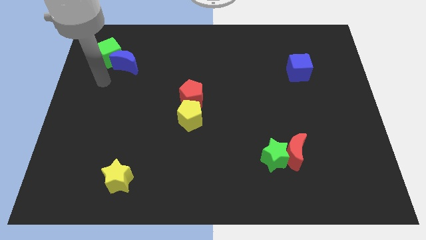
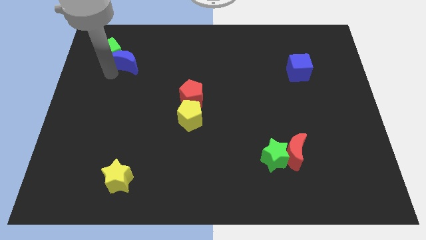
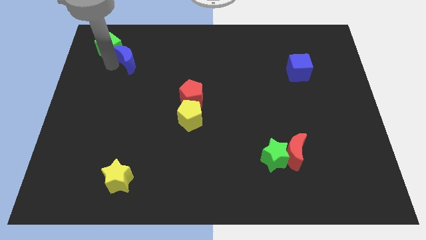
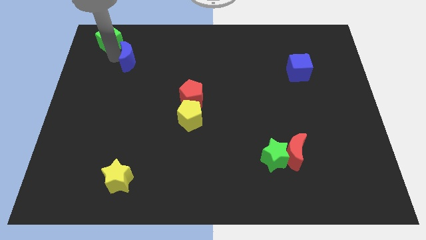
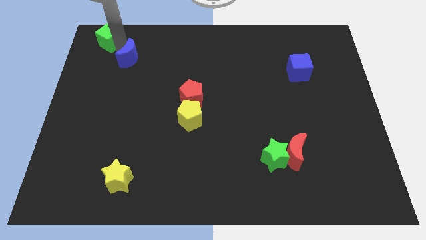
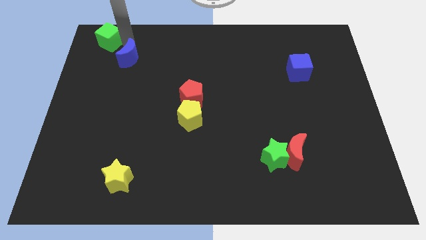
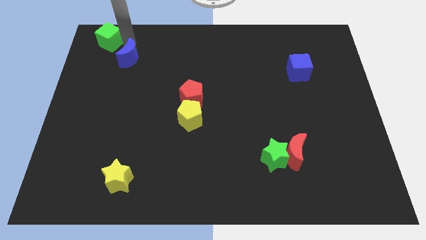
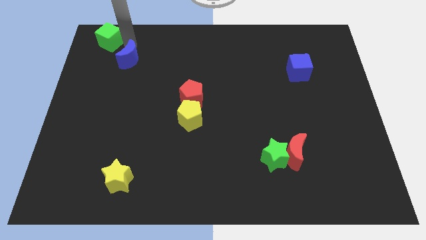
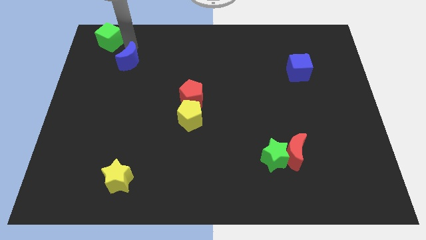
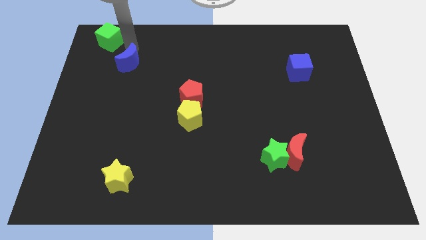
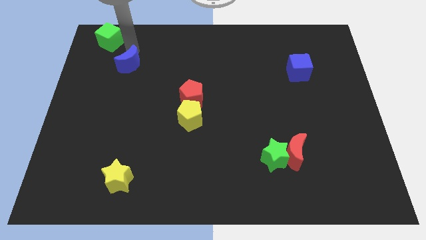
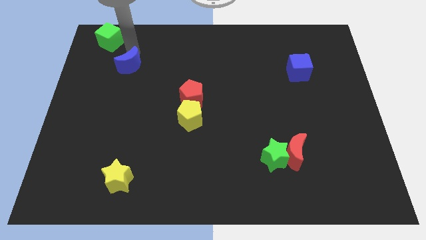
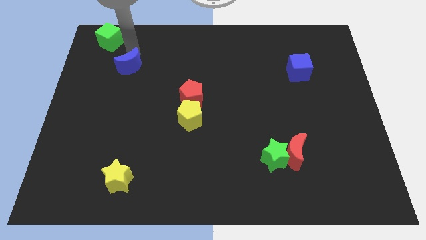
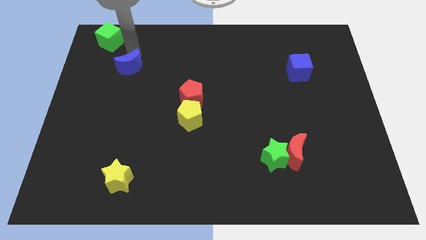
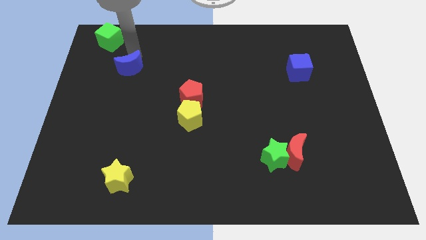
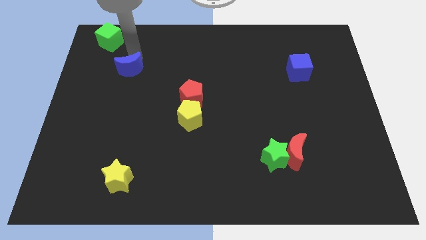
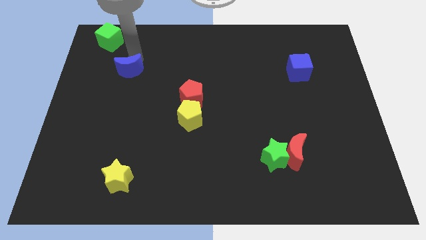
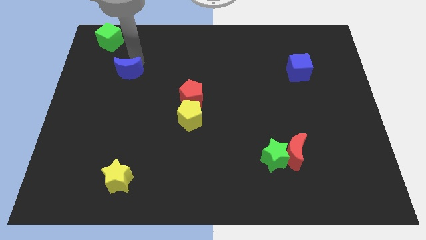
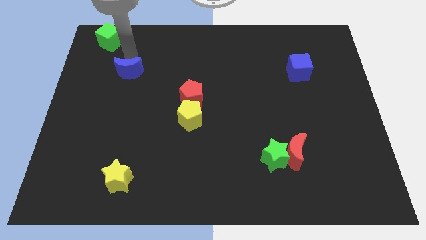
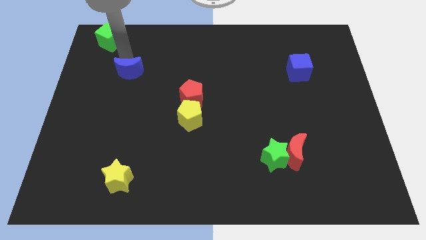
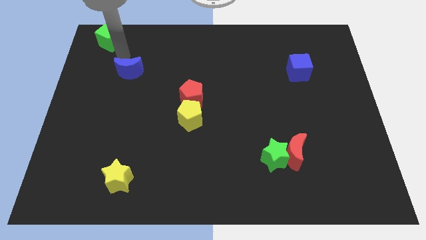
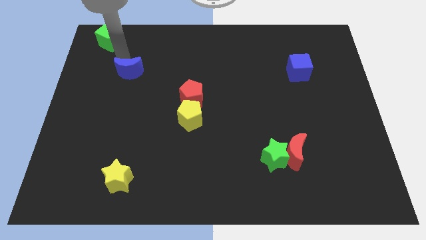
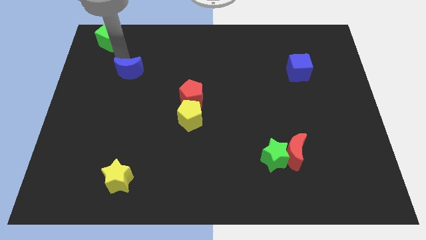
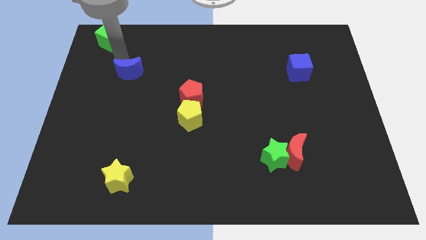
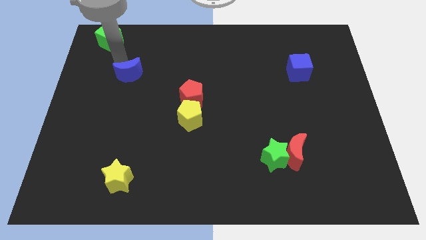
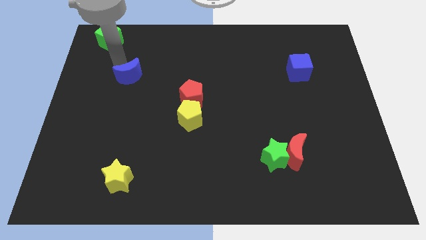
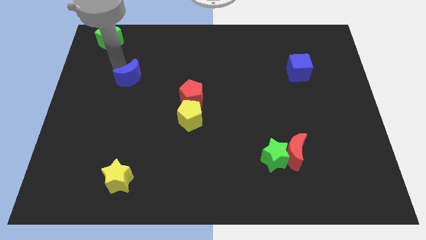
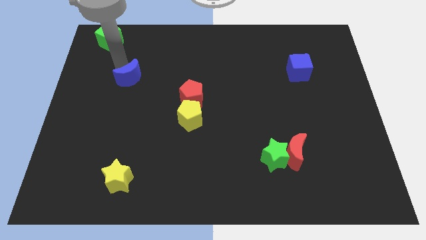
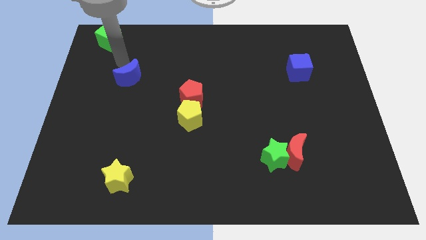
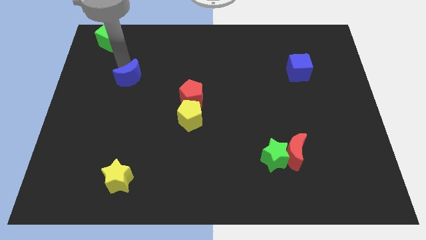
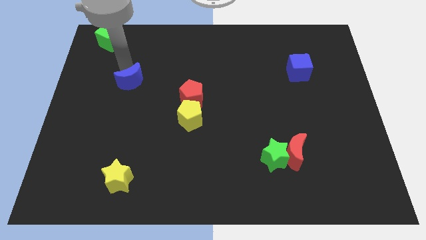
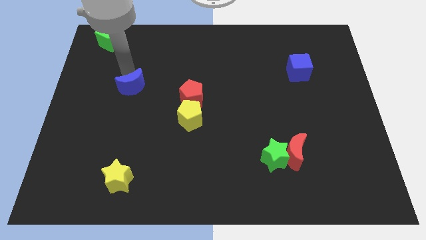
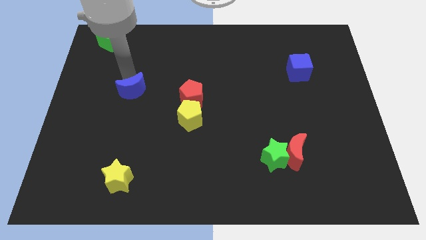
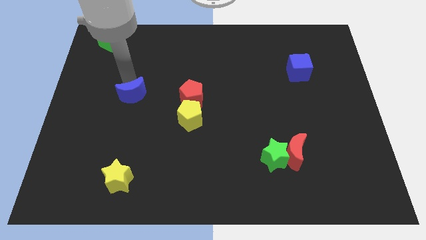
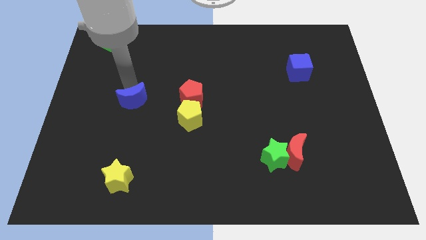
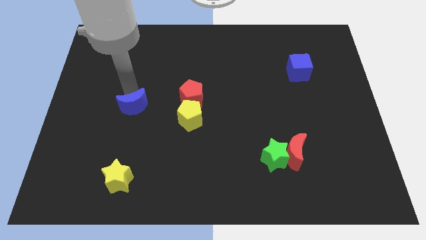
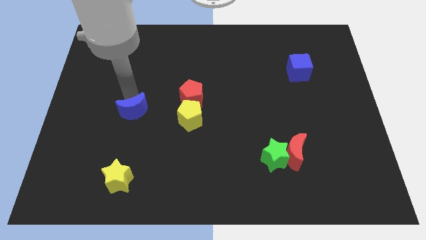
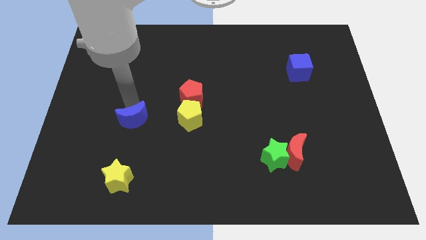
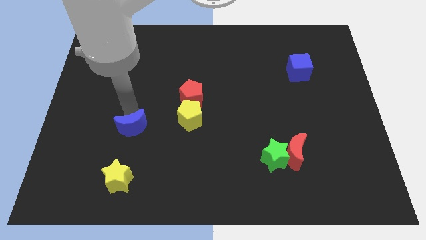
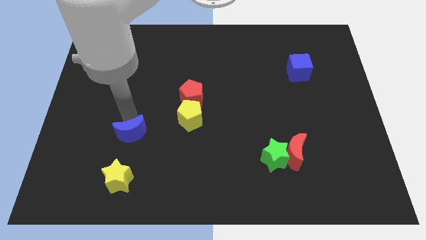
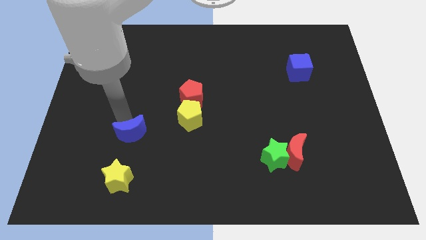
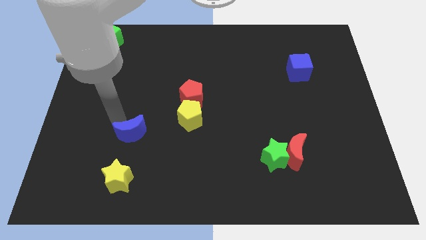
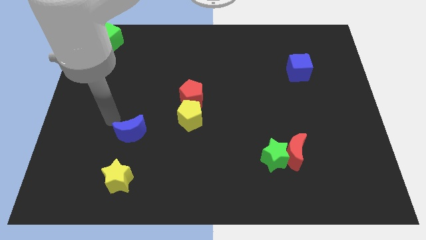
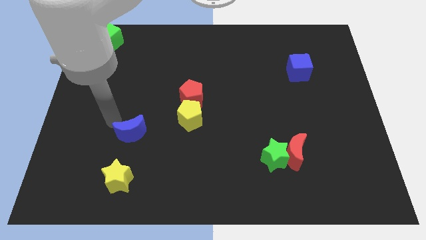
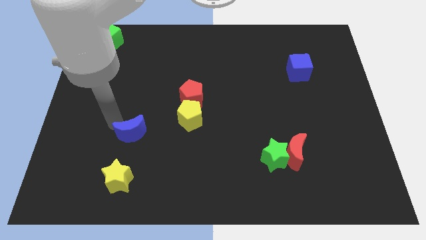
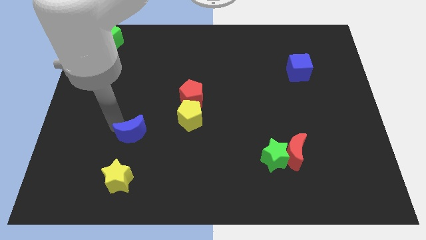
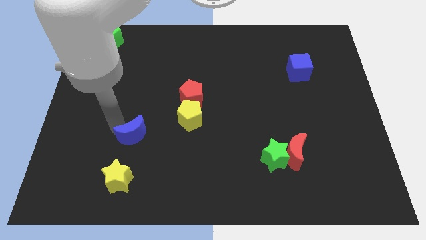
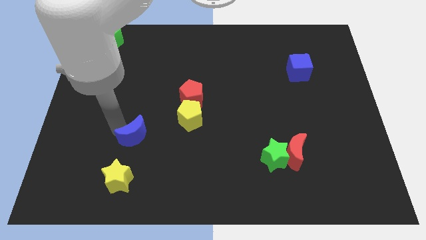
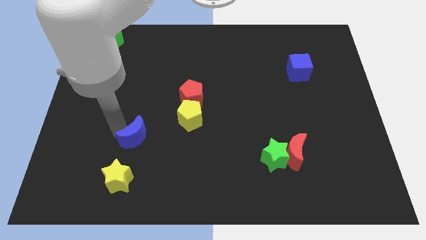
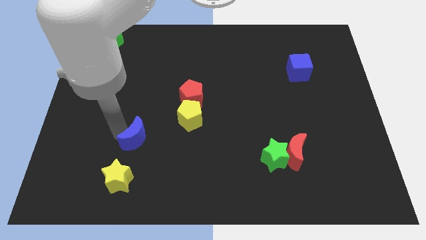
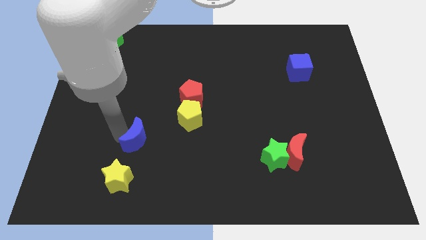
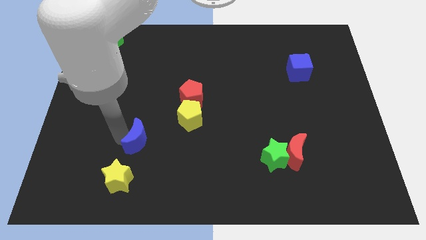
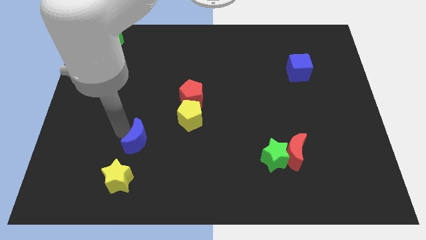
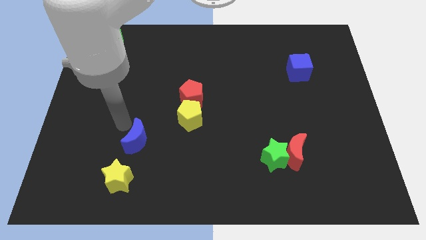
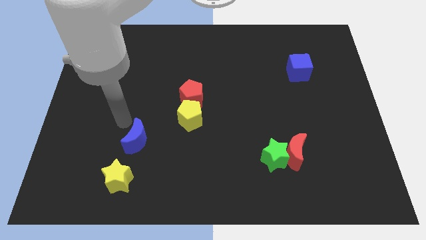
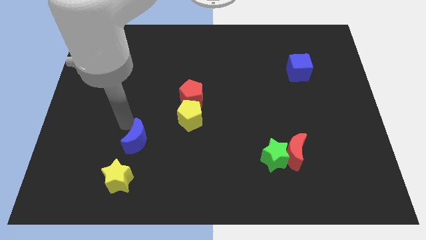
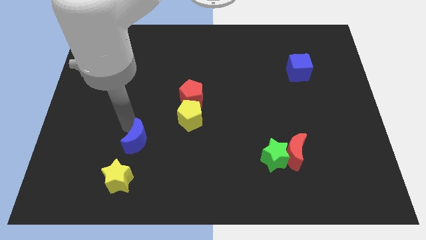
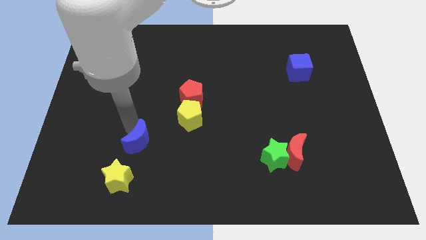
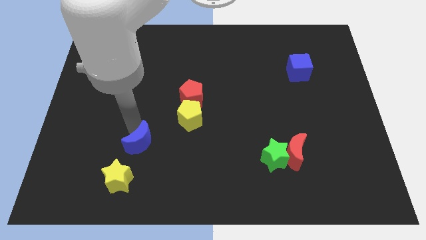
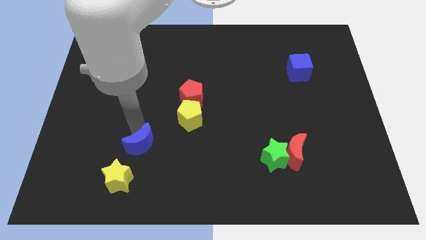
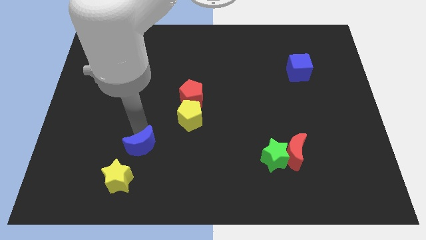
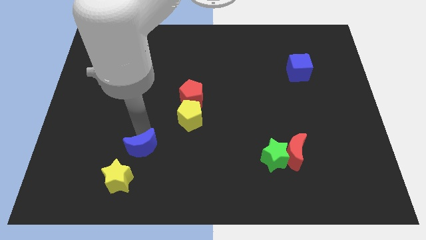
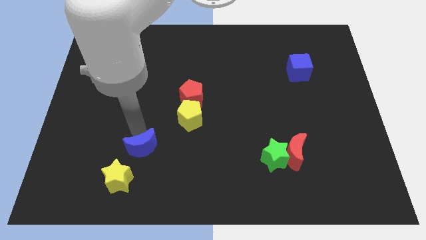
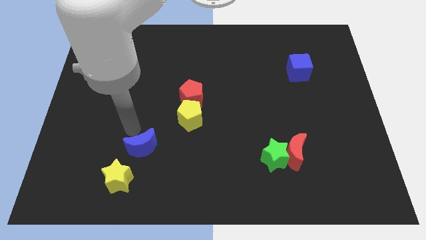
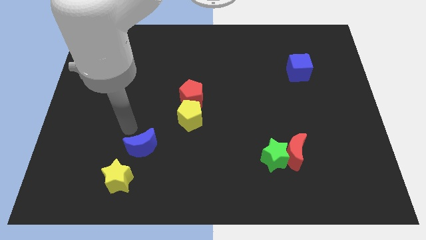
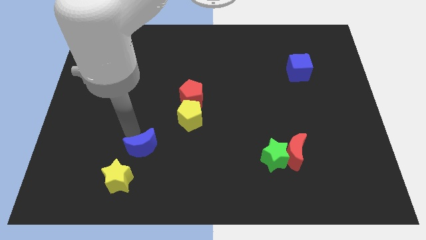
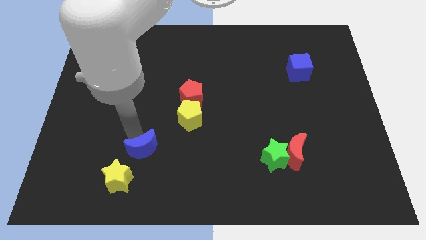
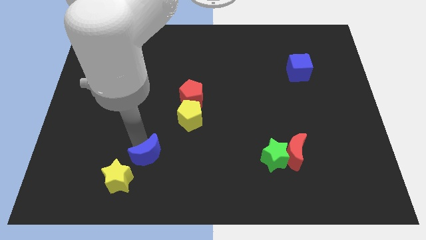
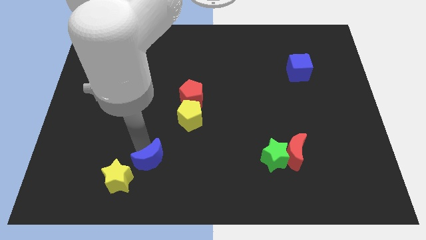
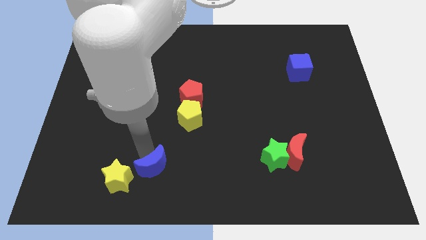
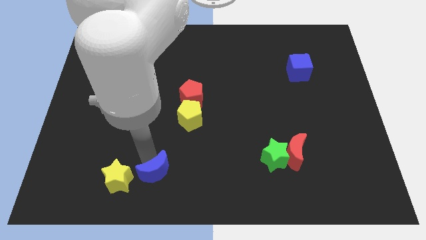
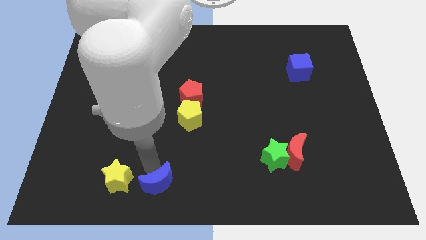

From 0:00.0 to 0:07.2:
move the blue moon to the bottom

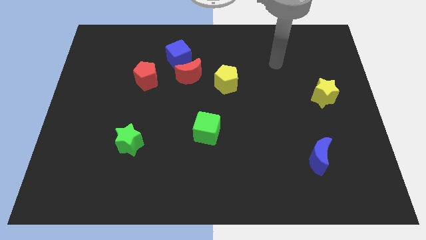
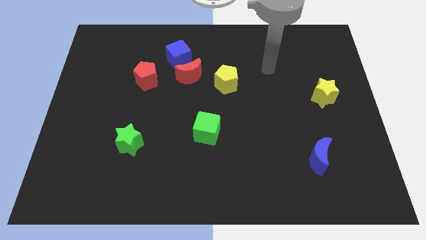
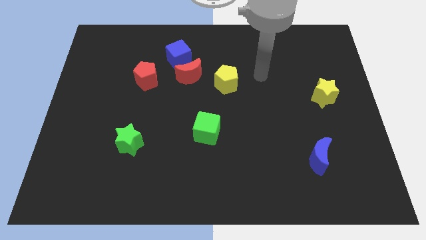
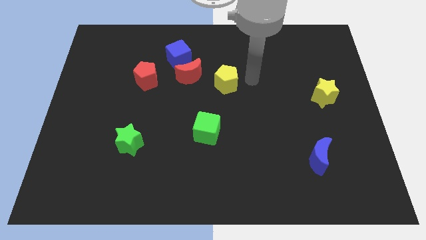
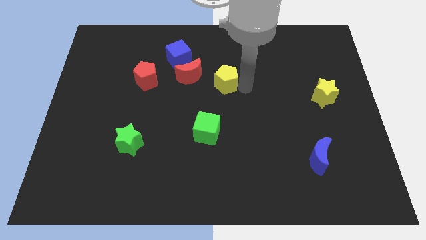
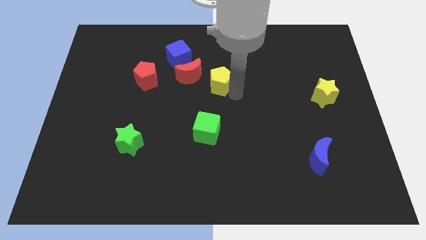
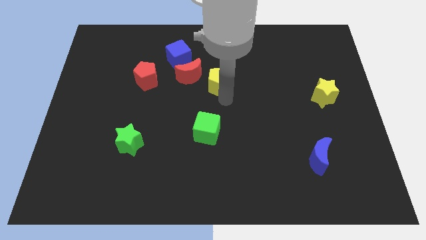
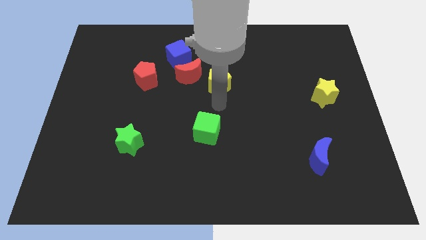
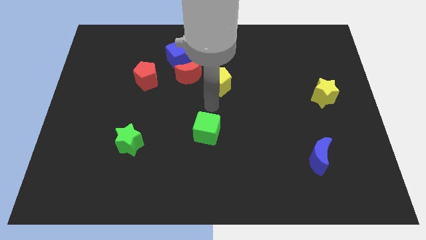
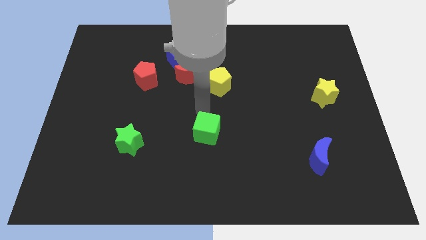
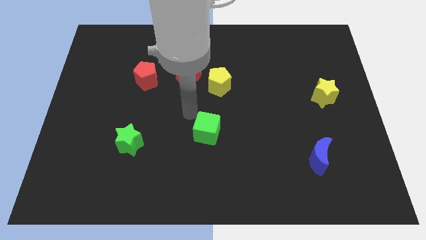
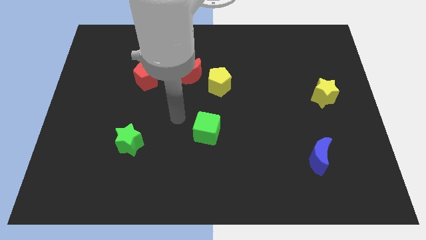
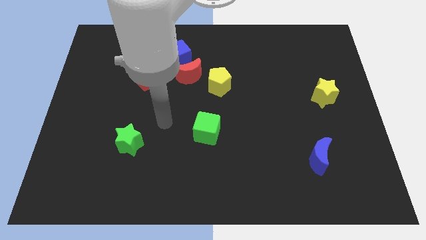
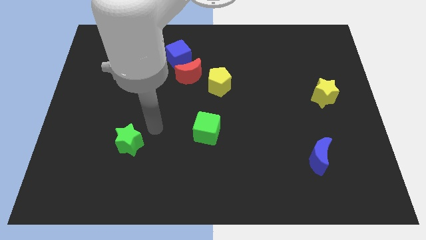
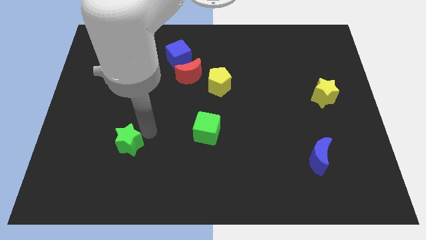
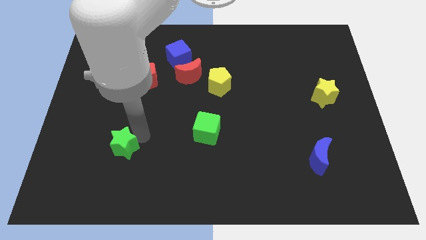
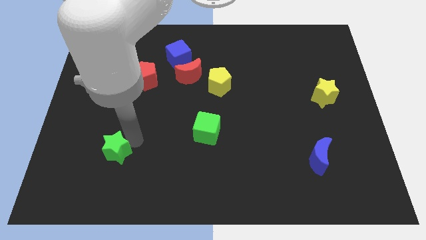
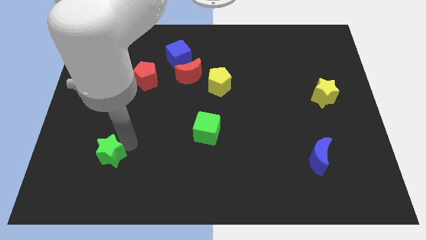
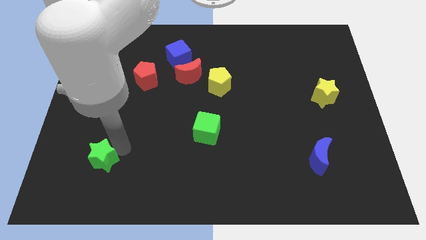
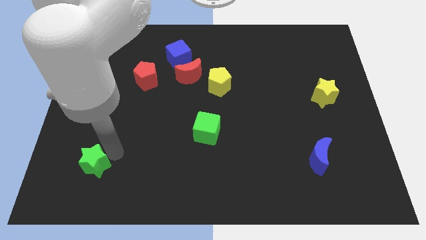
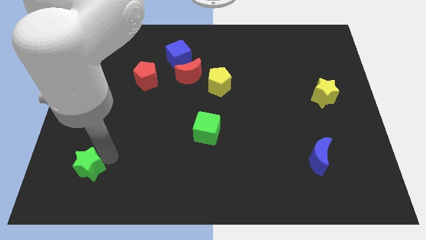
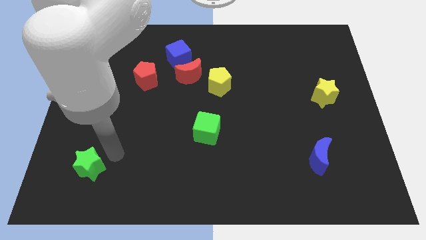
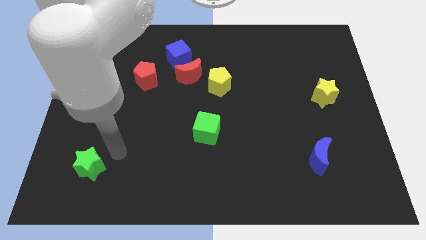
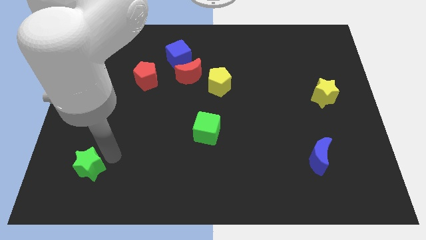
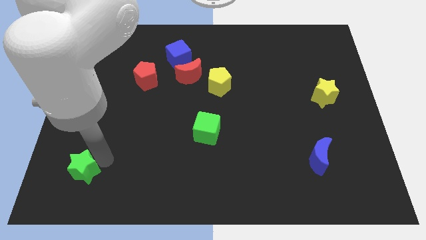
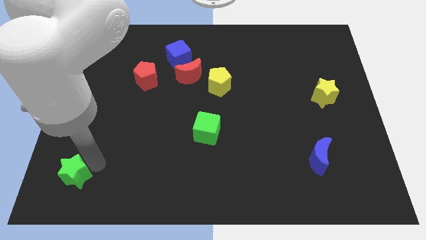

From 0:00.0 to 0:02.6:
push the green star to the lower left corner
